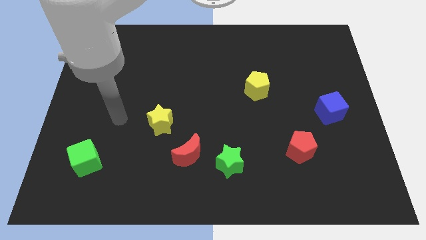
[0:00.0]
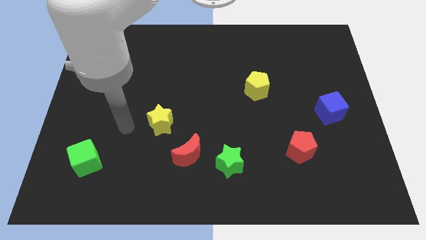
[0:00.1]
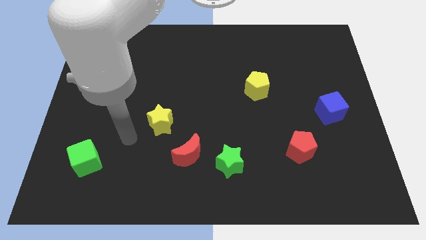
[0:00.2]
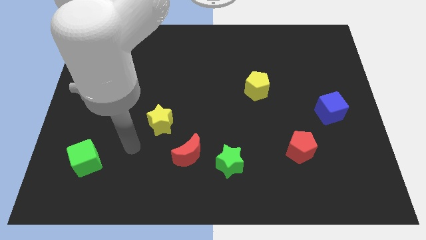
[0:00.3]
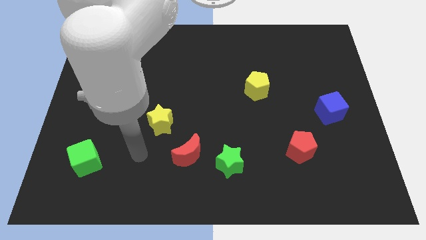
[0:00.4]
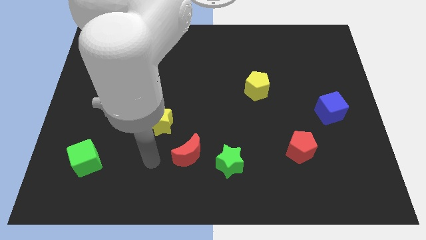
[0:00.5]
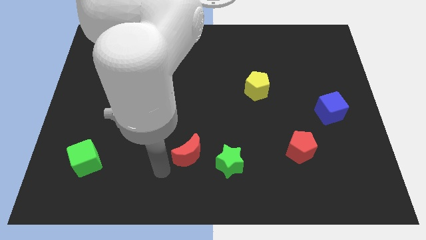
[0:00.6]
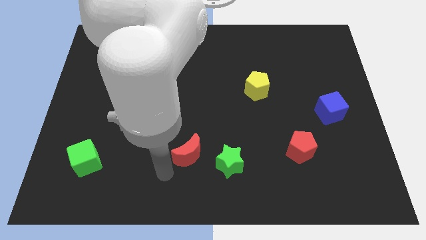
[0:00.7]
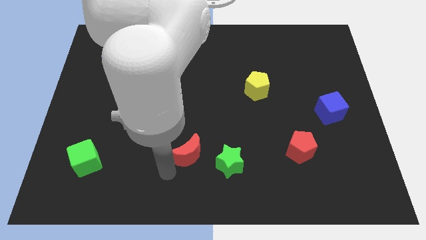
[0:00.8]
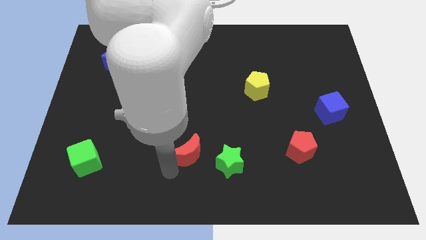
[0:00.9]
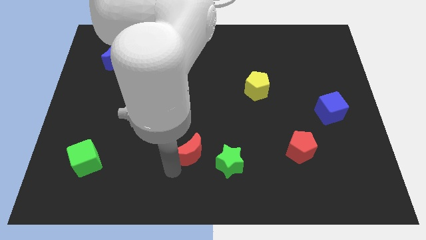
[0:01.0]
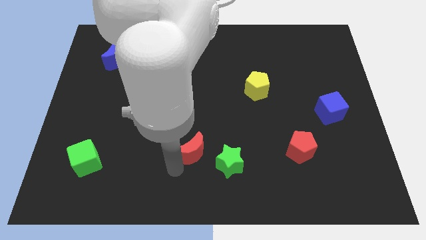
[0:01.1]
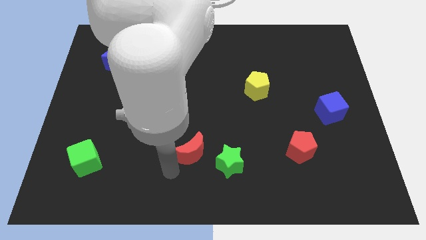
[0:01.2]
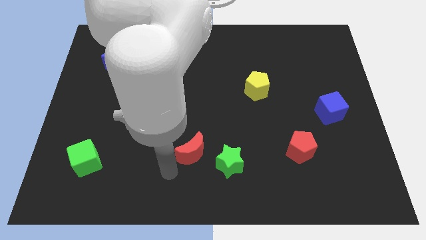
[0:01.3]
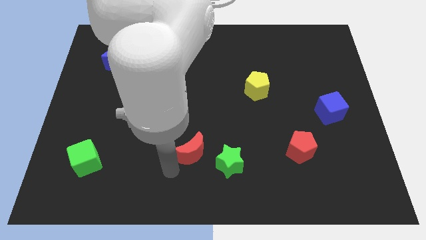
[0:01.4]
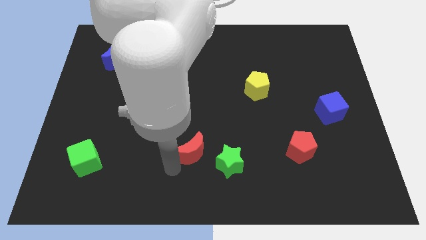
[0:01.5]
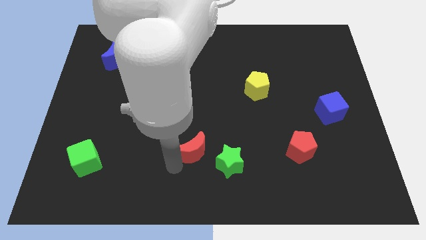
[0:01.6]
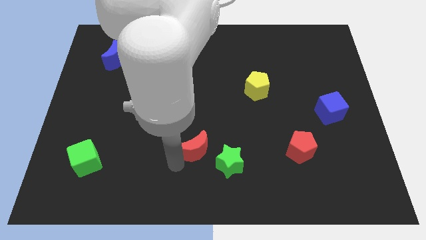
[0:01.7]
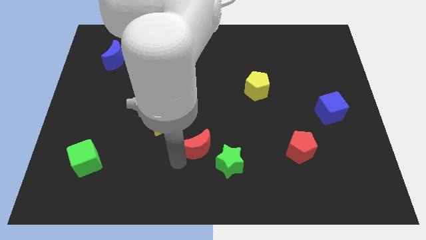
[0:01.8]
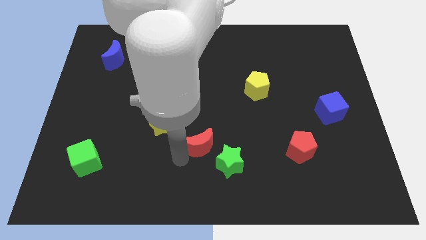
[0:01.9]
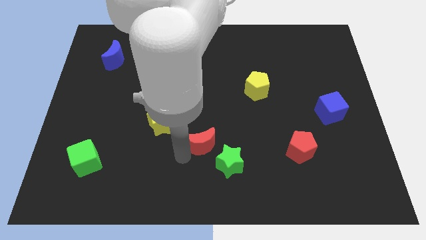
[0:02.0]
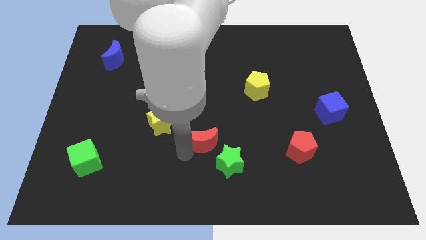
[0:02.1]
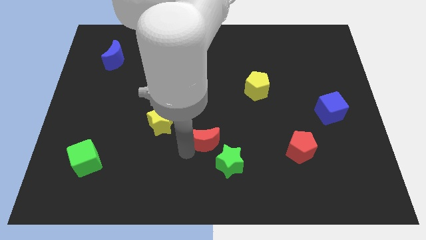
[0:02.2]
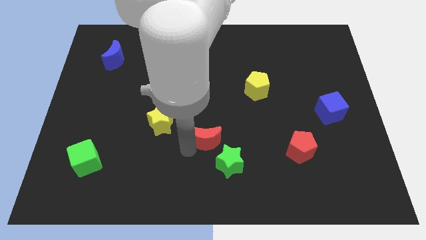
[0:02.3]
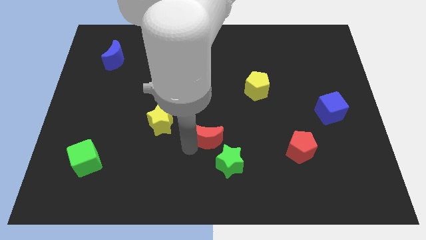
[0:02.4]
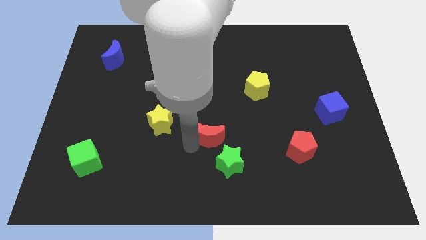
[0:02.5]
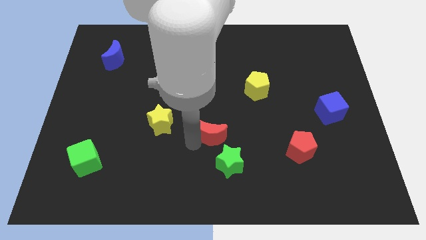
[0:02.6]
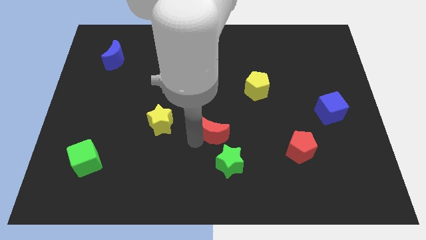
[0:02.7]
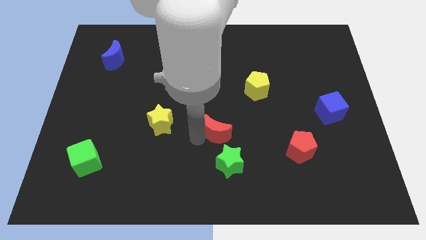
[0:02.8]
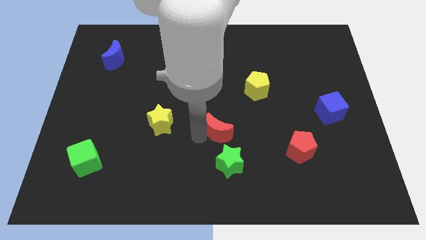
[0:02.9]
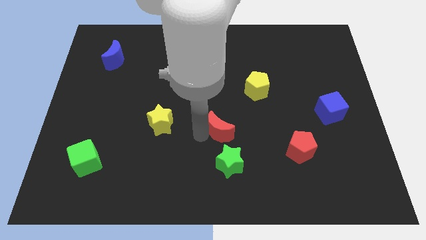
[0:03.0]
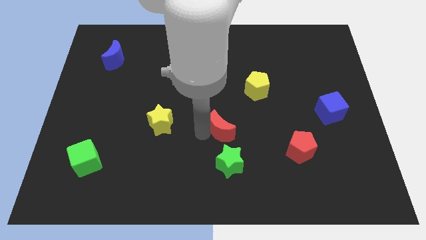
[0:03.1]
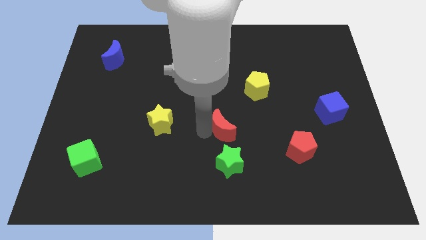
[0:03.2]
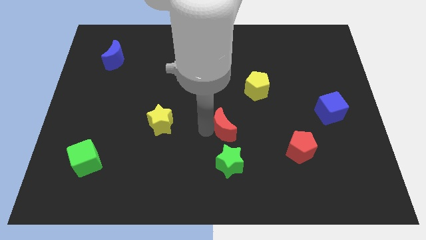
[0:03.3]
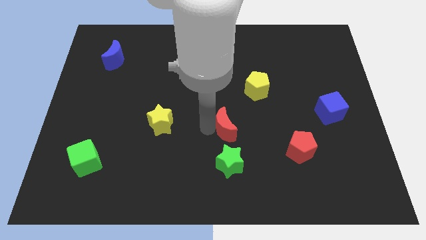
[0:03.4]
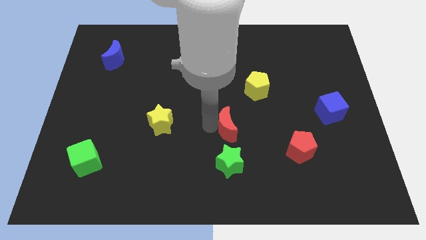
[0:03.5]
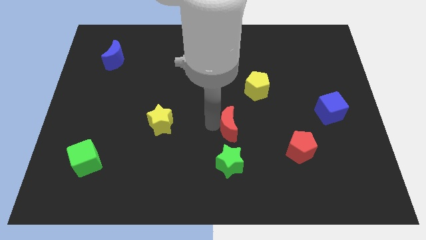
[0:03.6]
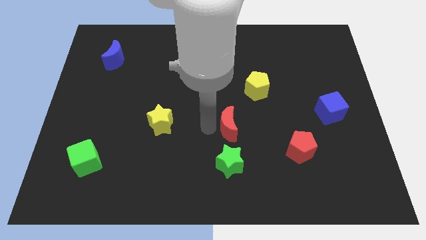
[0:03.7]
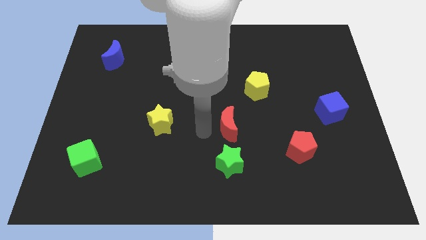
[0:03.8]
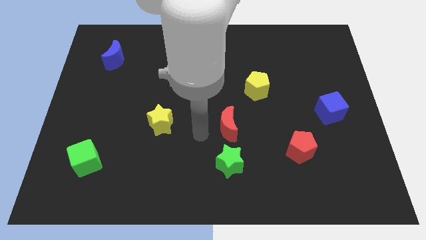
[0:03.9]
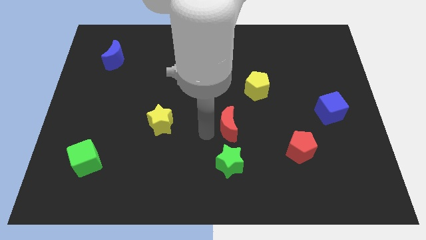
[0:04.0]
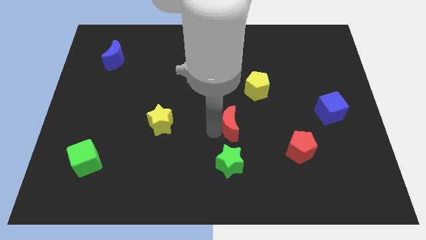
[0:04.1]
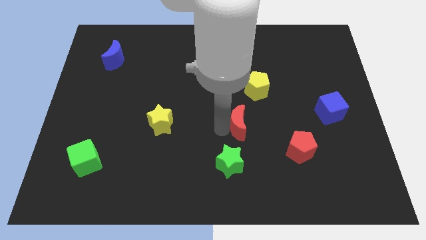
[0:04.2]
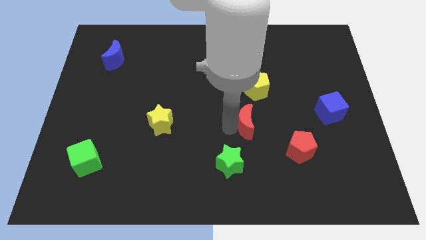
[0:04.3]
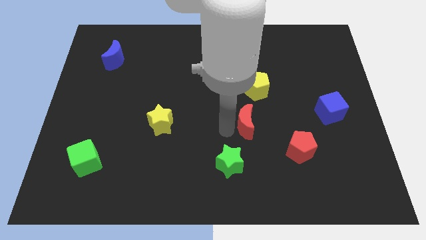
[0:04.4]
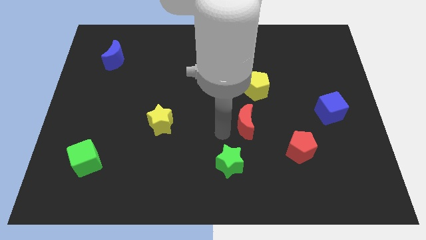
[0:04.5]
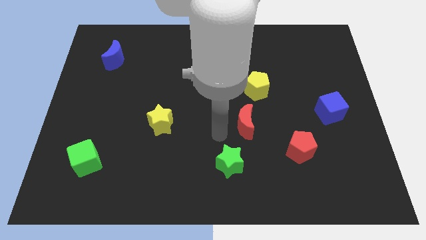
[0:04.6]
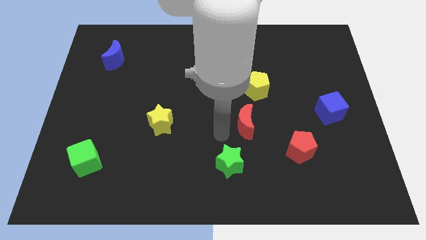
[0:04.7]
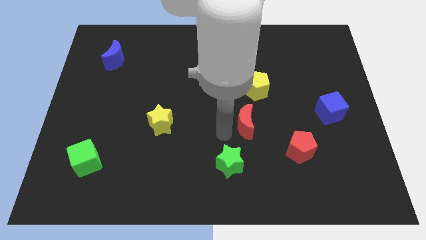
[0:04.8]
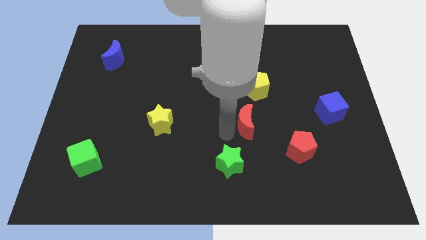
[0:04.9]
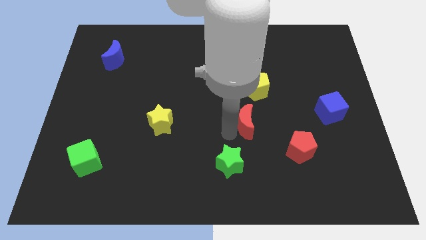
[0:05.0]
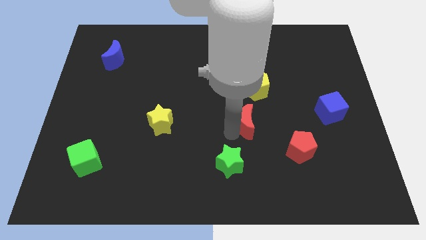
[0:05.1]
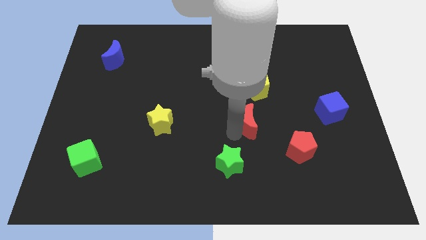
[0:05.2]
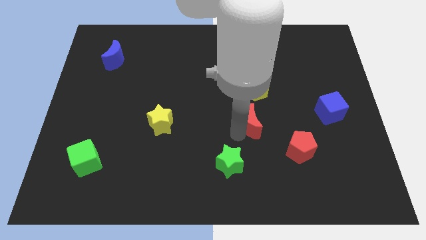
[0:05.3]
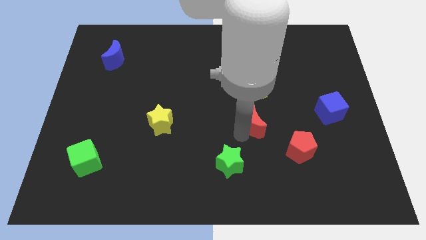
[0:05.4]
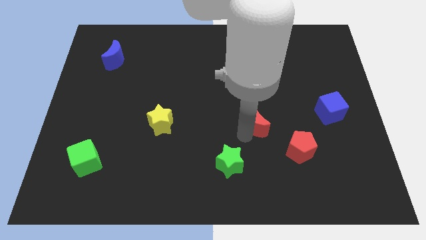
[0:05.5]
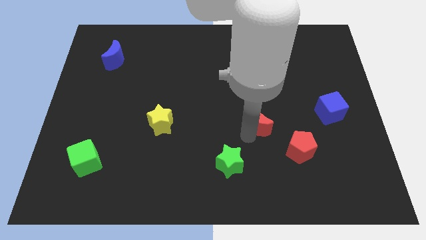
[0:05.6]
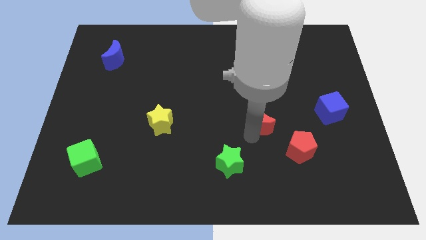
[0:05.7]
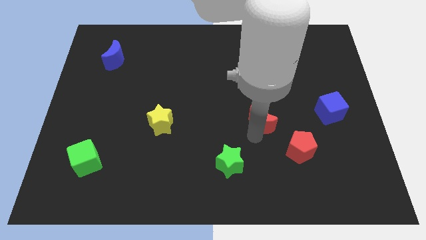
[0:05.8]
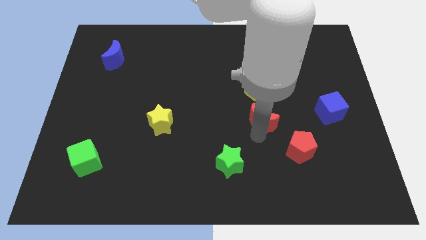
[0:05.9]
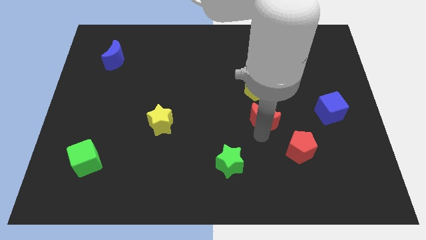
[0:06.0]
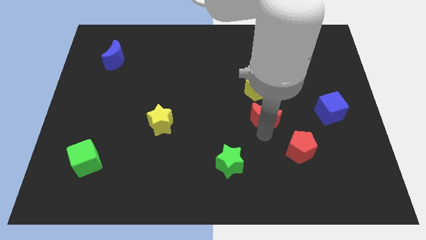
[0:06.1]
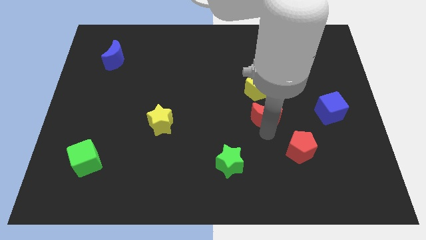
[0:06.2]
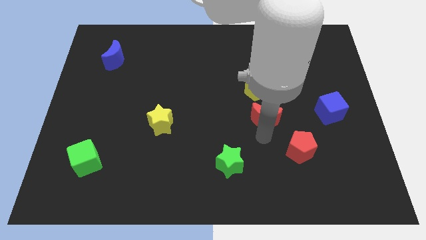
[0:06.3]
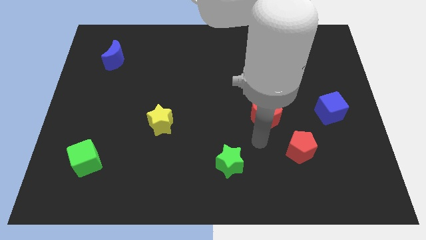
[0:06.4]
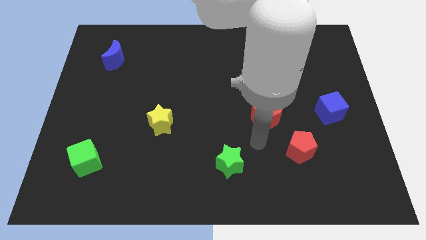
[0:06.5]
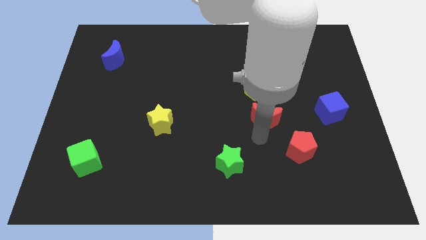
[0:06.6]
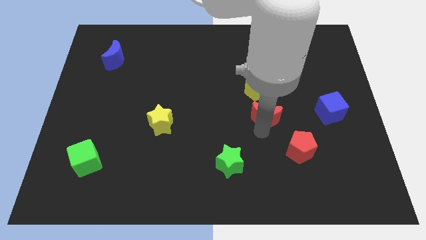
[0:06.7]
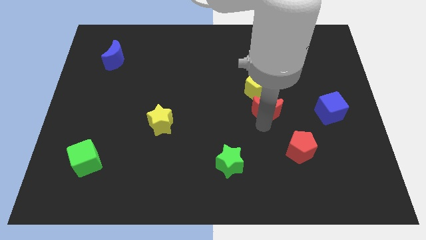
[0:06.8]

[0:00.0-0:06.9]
push the red moon upwards and to the right diagonally

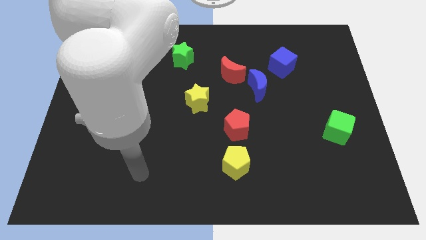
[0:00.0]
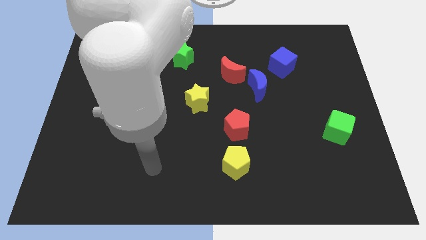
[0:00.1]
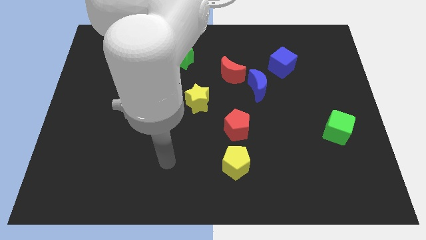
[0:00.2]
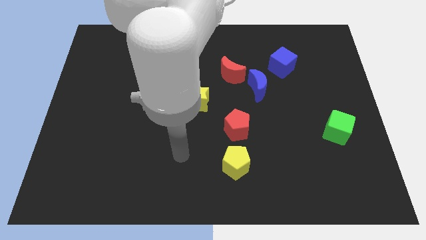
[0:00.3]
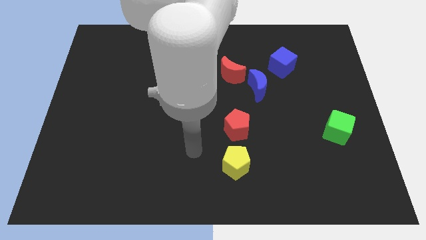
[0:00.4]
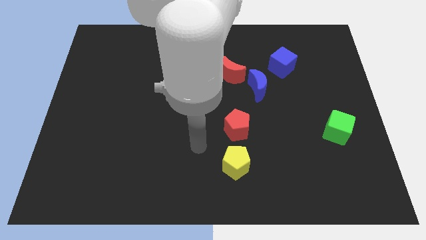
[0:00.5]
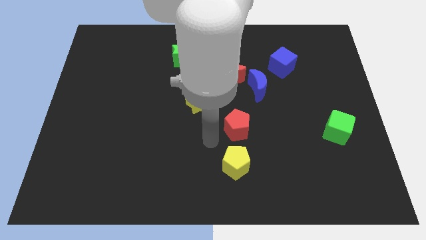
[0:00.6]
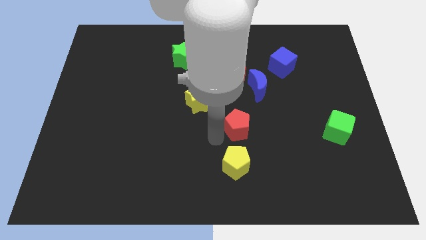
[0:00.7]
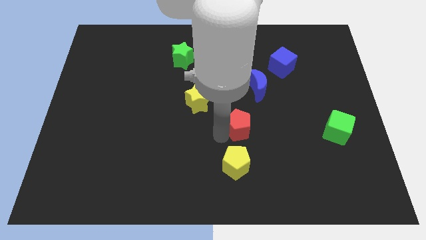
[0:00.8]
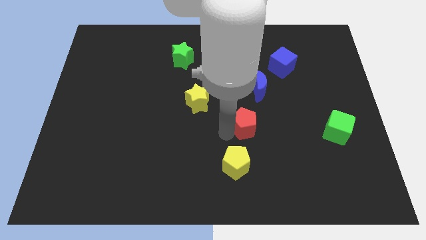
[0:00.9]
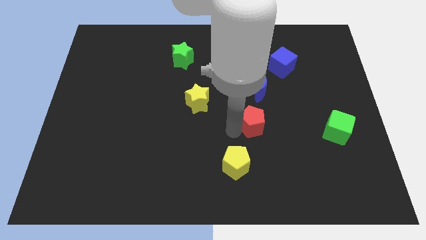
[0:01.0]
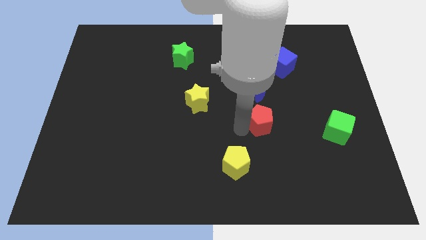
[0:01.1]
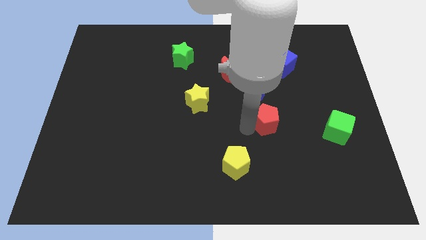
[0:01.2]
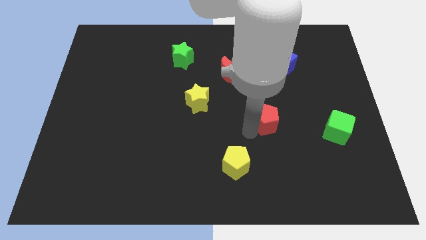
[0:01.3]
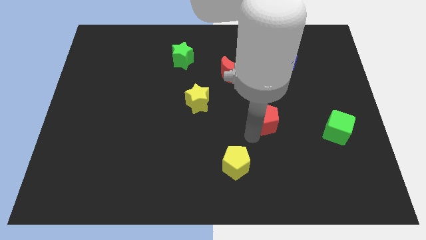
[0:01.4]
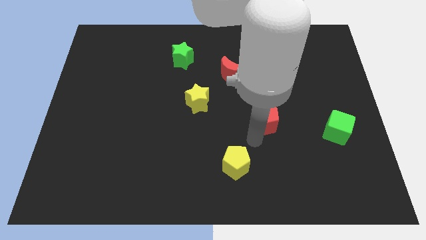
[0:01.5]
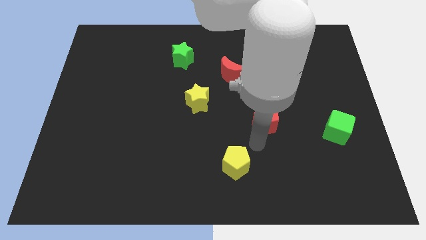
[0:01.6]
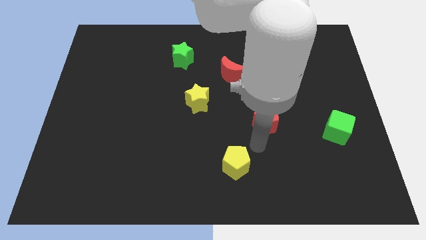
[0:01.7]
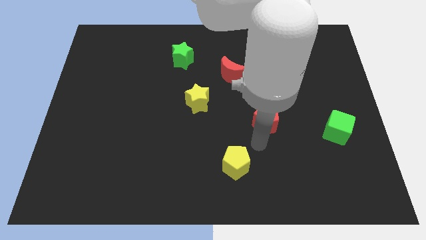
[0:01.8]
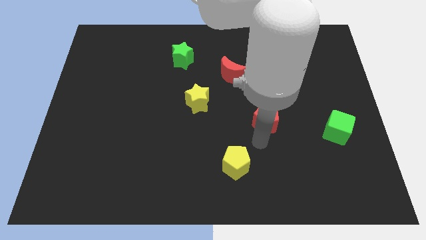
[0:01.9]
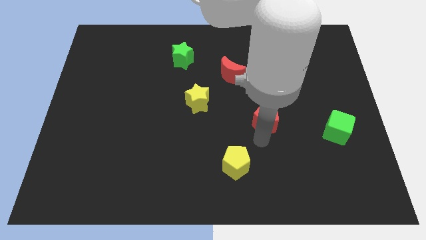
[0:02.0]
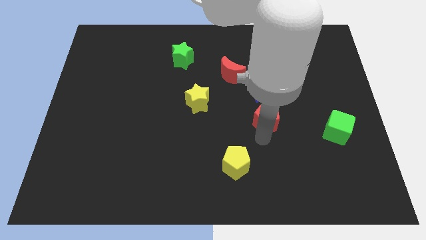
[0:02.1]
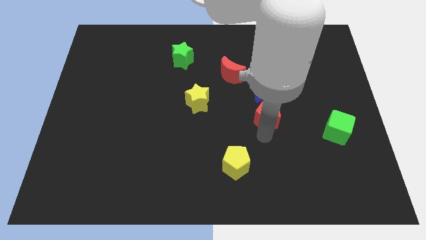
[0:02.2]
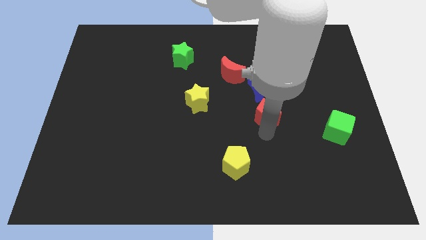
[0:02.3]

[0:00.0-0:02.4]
slide the red pentagon upwards and then to the right a little bit
